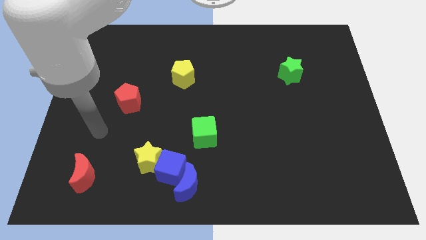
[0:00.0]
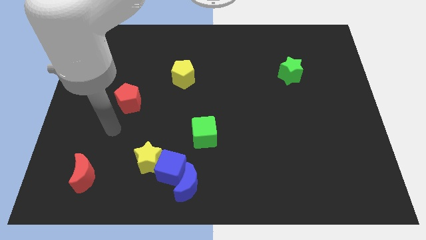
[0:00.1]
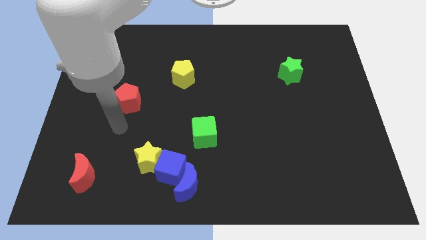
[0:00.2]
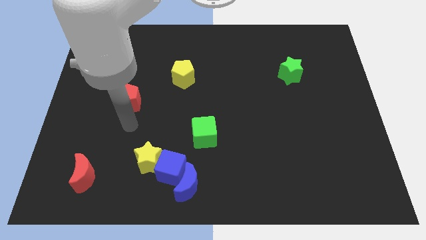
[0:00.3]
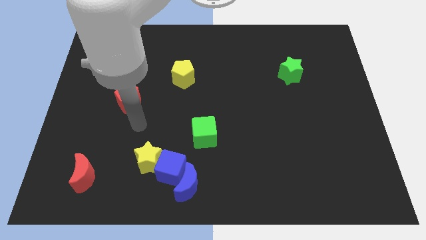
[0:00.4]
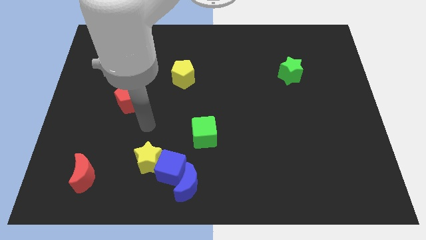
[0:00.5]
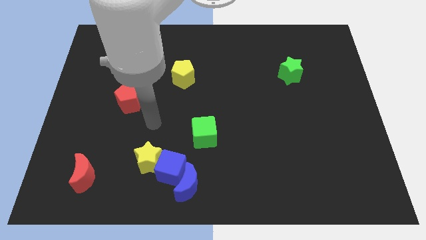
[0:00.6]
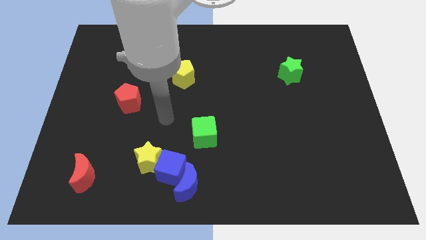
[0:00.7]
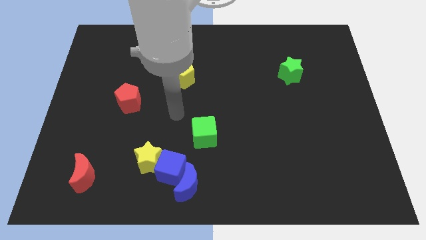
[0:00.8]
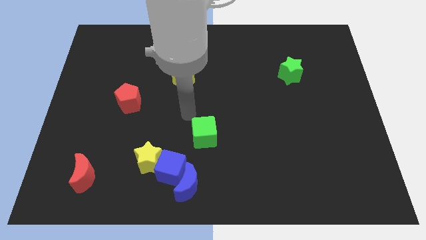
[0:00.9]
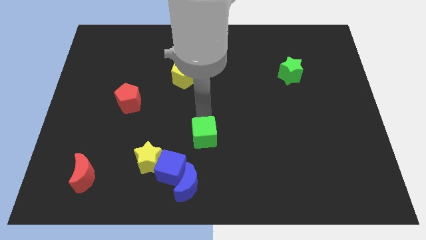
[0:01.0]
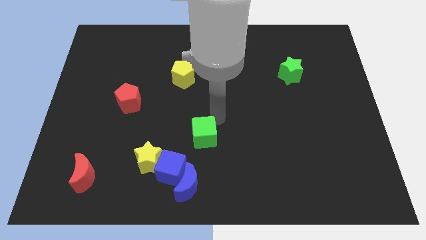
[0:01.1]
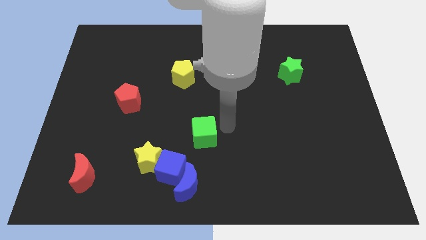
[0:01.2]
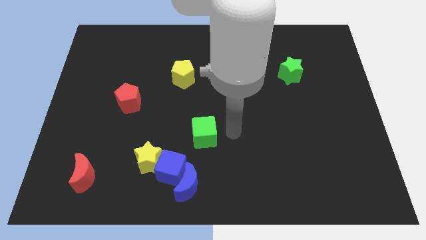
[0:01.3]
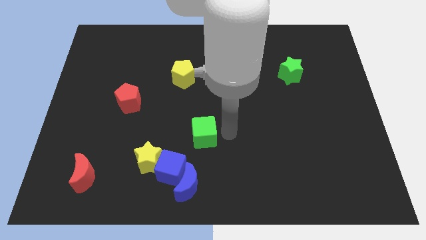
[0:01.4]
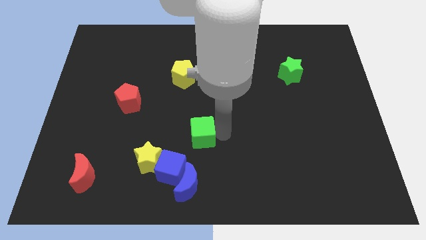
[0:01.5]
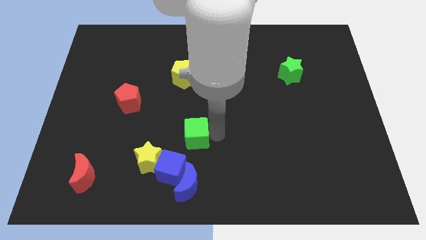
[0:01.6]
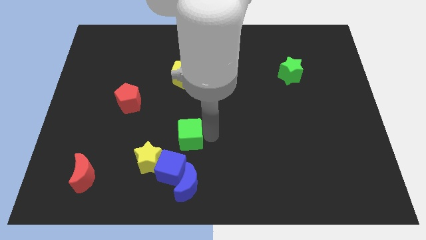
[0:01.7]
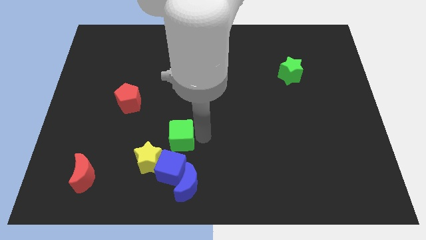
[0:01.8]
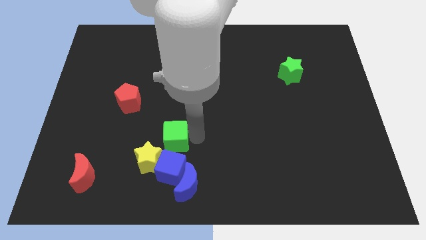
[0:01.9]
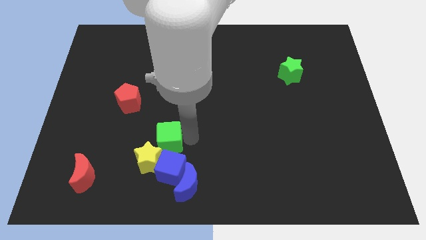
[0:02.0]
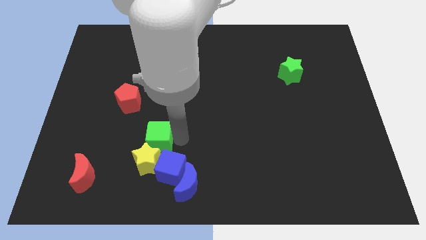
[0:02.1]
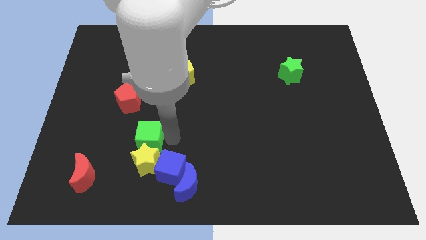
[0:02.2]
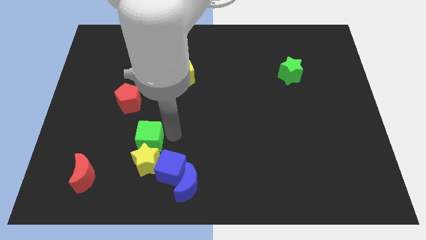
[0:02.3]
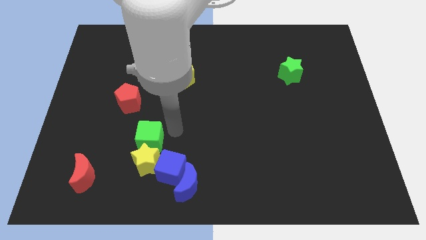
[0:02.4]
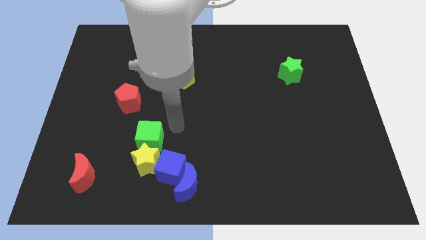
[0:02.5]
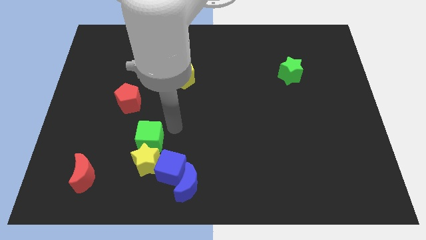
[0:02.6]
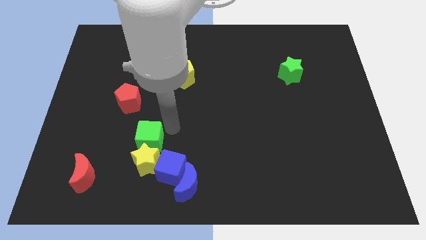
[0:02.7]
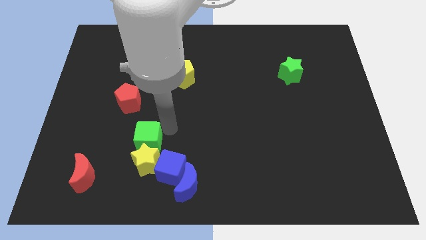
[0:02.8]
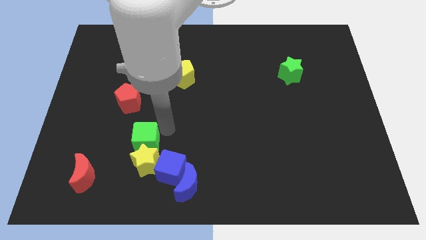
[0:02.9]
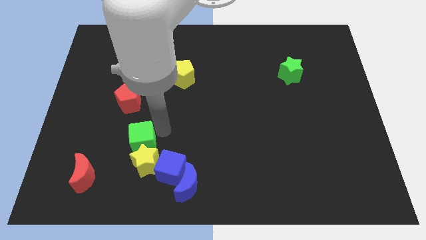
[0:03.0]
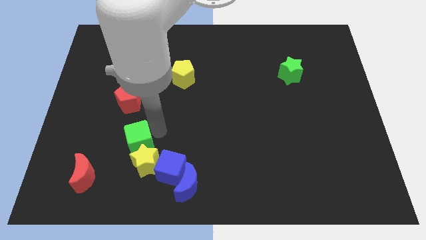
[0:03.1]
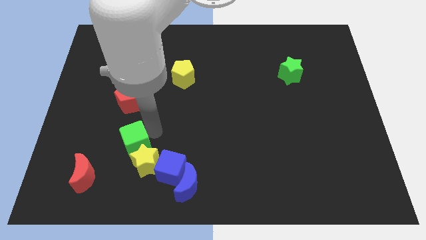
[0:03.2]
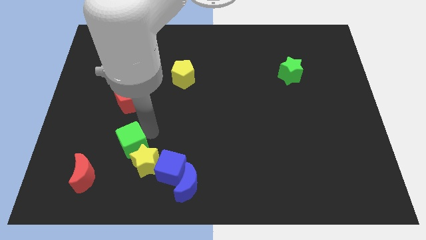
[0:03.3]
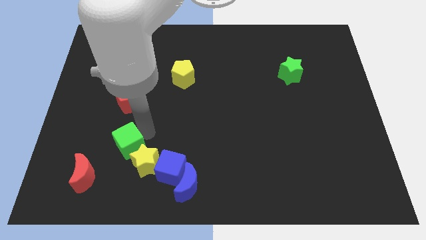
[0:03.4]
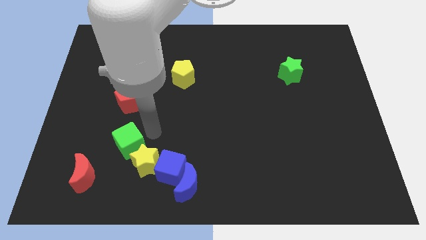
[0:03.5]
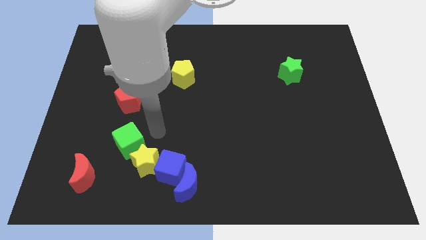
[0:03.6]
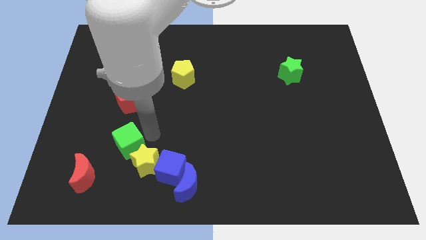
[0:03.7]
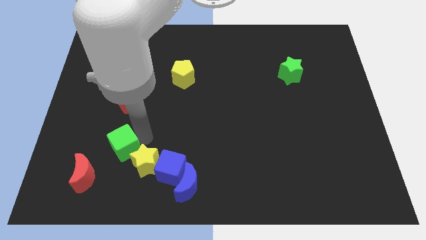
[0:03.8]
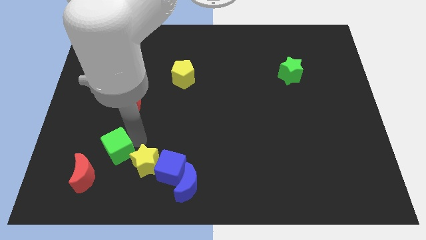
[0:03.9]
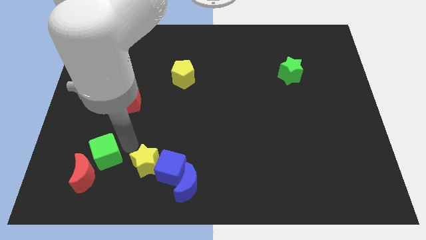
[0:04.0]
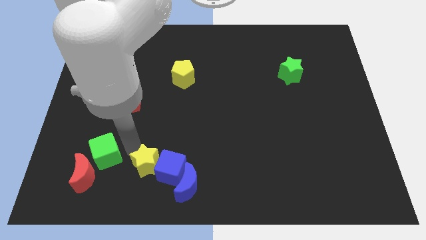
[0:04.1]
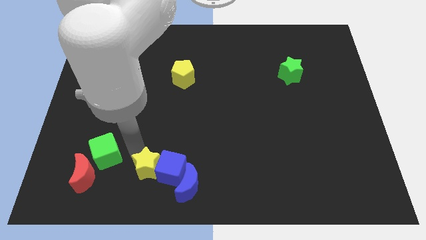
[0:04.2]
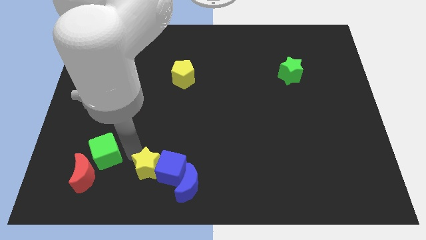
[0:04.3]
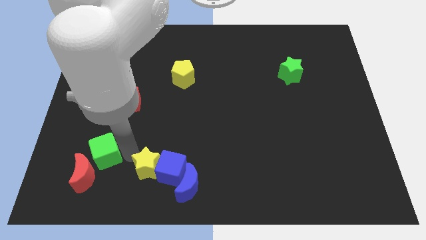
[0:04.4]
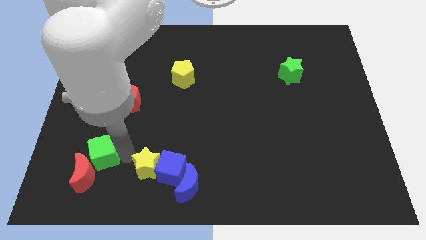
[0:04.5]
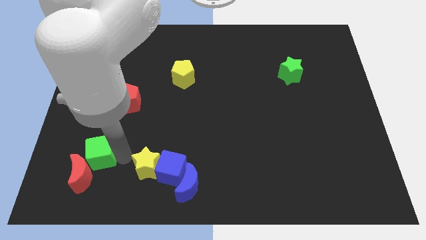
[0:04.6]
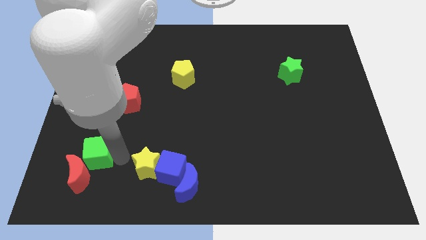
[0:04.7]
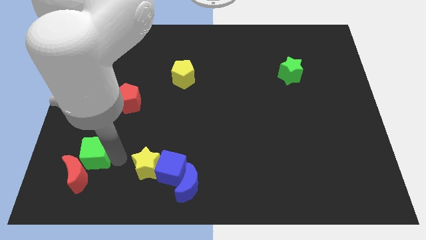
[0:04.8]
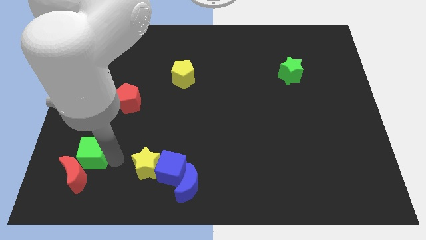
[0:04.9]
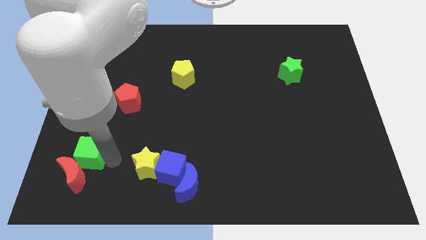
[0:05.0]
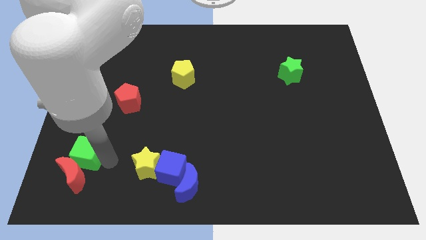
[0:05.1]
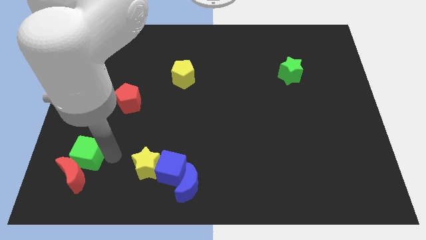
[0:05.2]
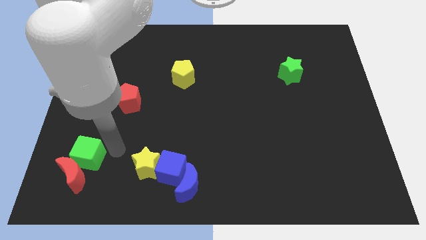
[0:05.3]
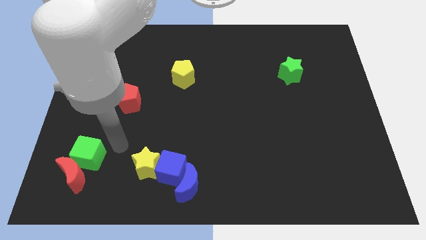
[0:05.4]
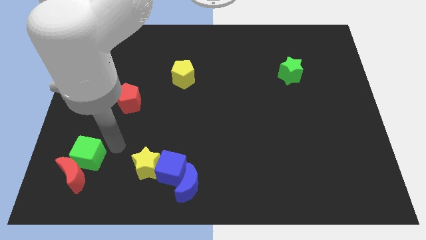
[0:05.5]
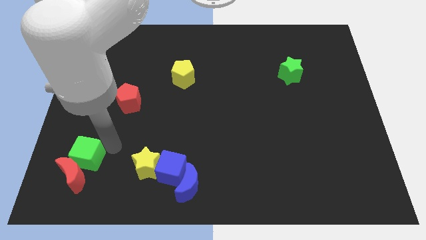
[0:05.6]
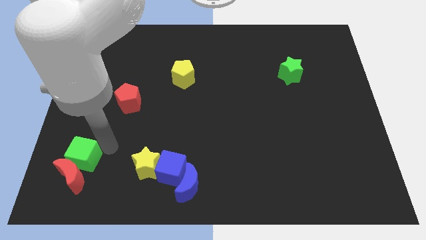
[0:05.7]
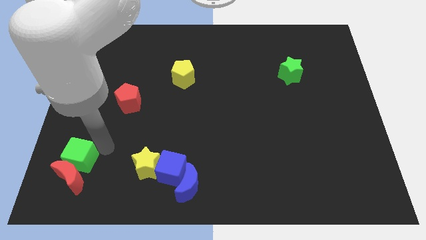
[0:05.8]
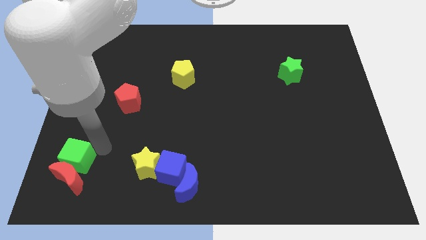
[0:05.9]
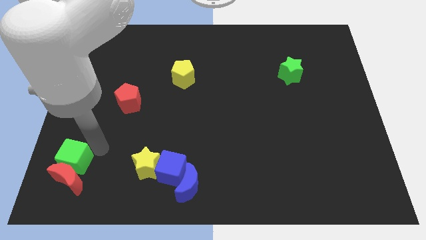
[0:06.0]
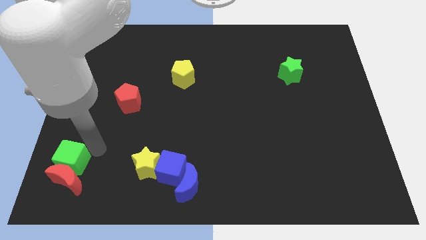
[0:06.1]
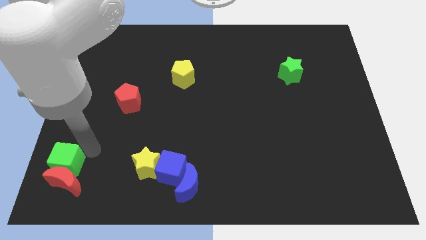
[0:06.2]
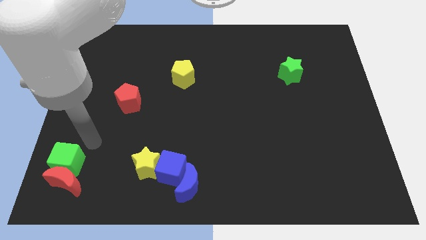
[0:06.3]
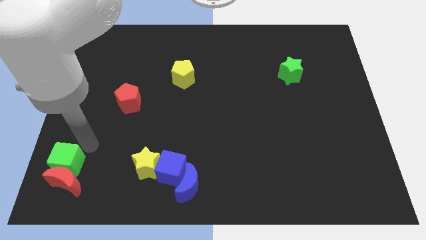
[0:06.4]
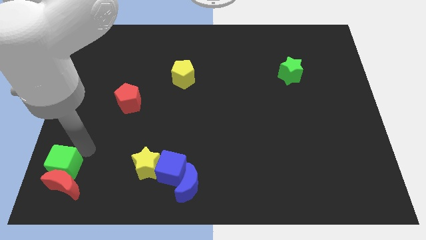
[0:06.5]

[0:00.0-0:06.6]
slide the green cube to the lower left corner

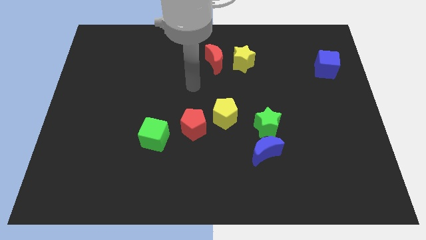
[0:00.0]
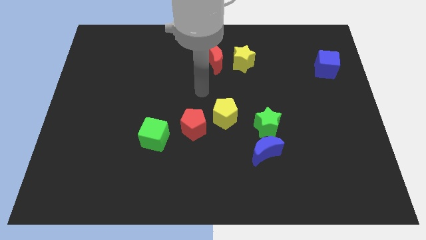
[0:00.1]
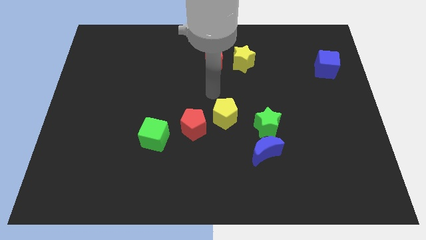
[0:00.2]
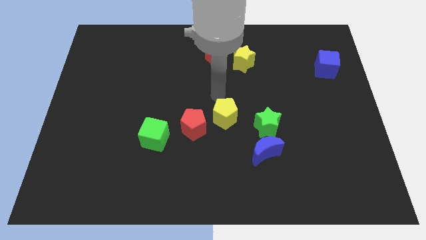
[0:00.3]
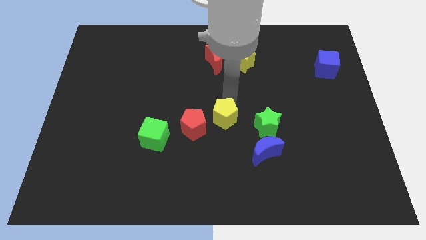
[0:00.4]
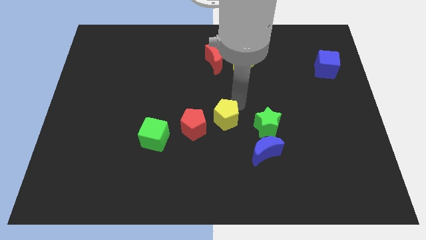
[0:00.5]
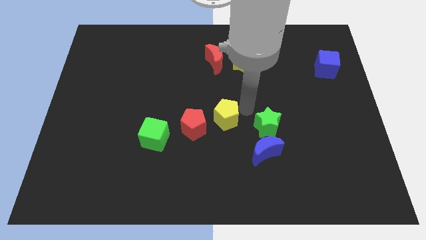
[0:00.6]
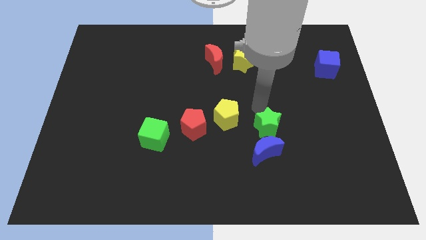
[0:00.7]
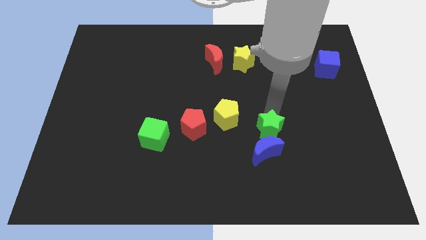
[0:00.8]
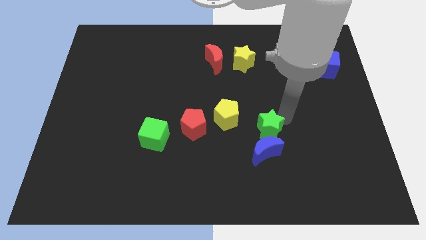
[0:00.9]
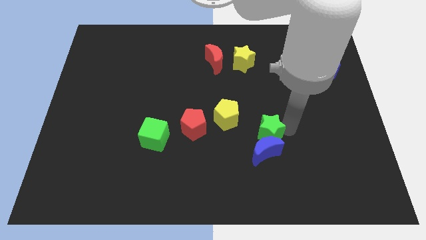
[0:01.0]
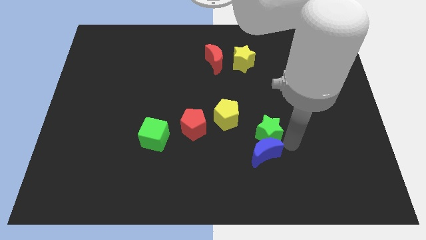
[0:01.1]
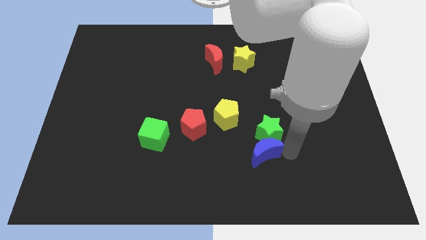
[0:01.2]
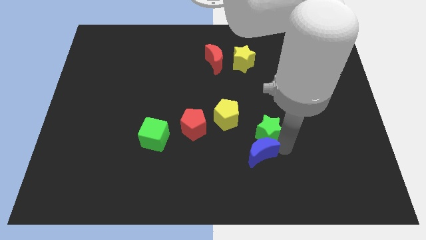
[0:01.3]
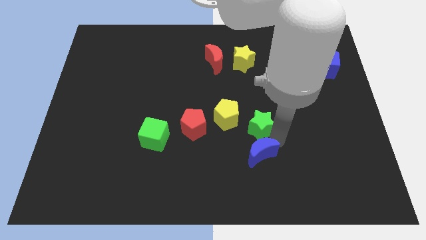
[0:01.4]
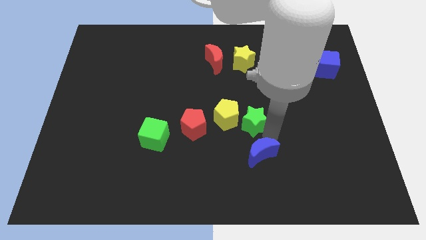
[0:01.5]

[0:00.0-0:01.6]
put the green star to the center of the board
